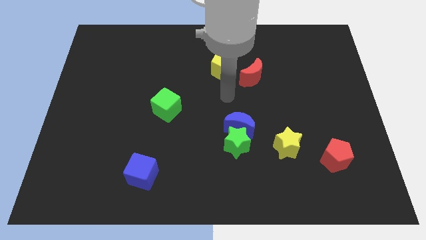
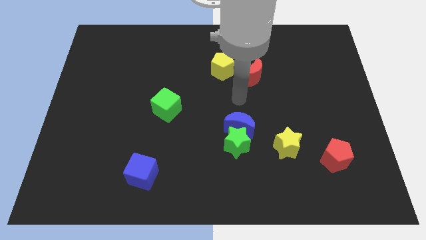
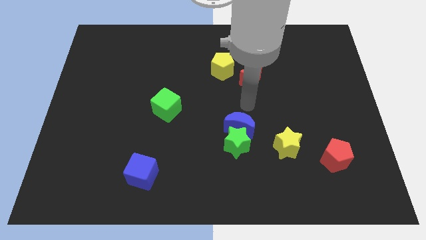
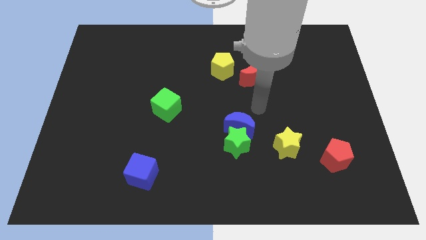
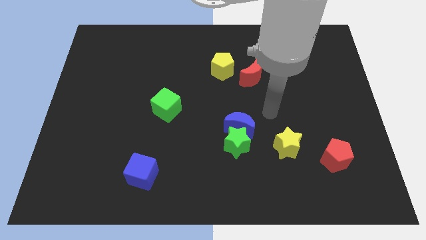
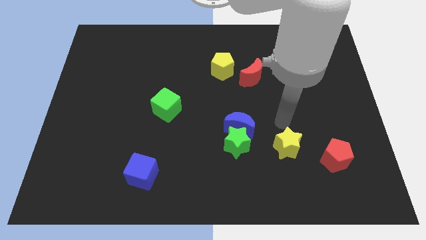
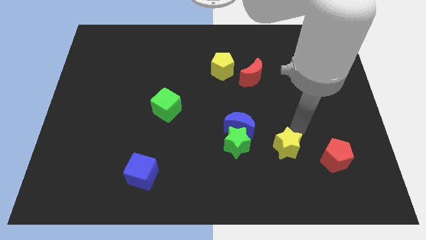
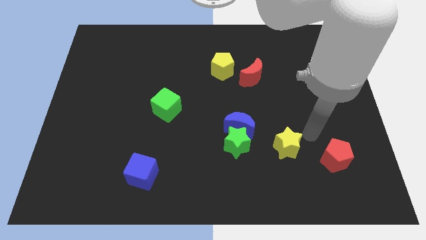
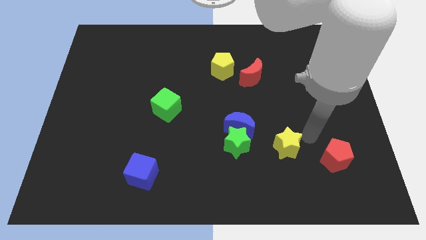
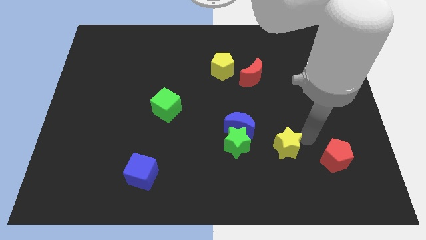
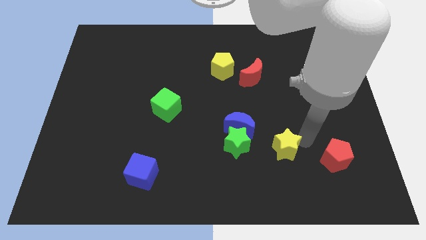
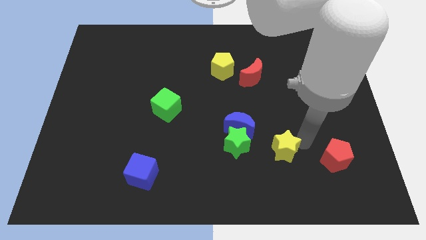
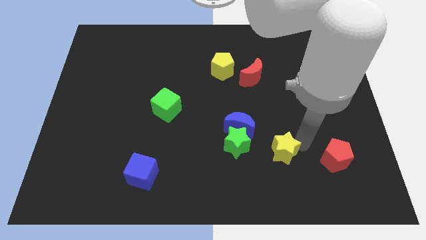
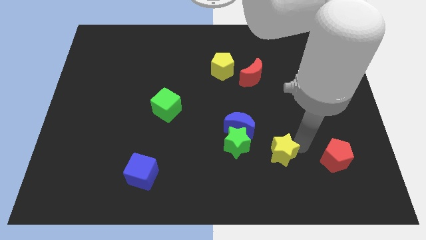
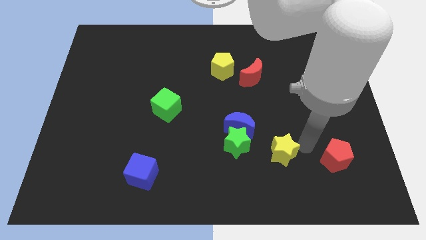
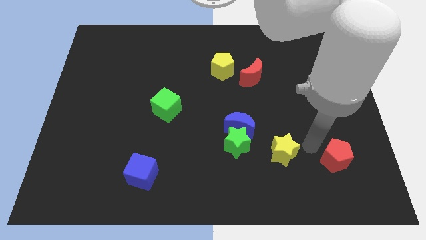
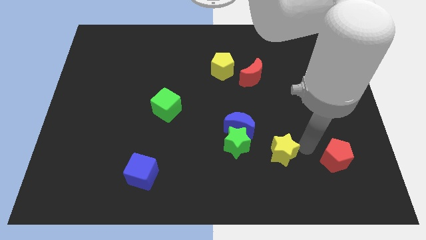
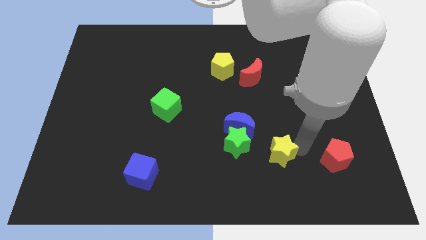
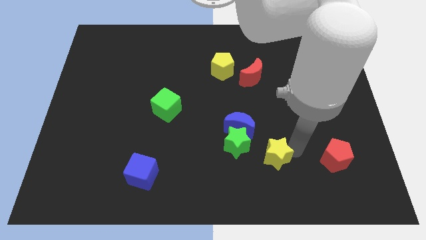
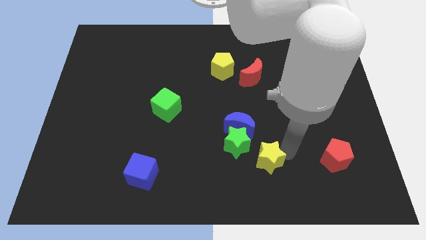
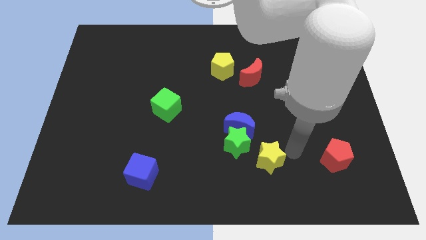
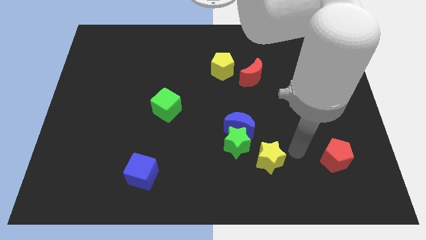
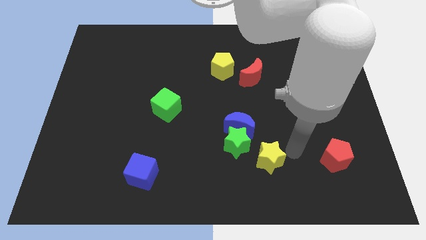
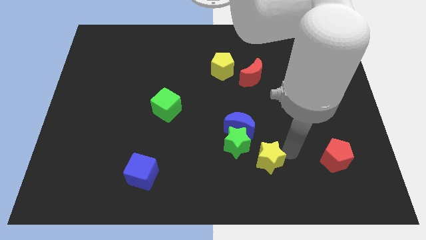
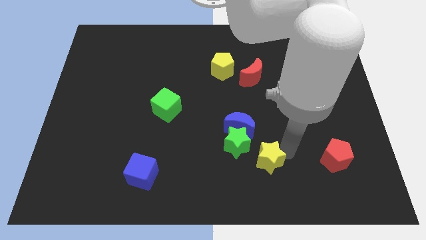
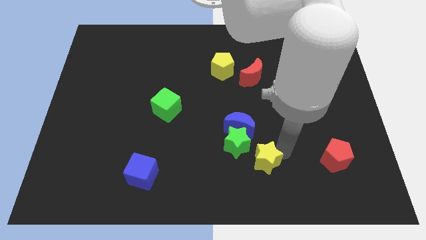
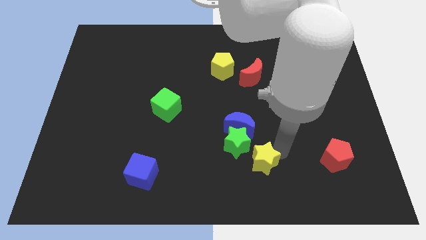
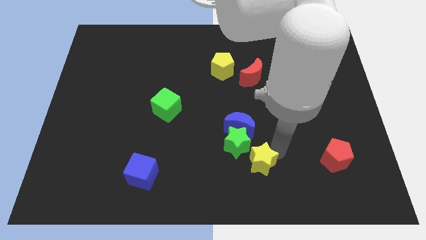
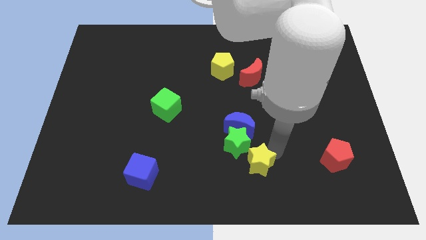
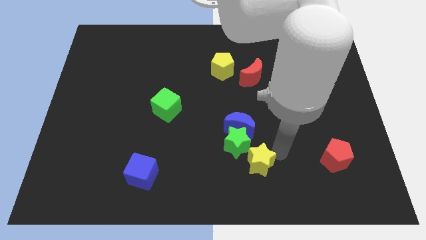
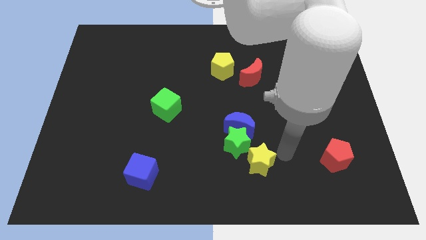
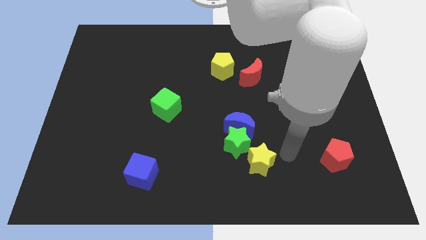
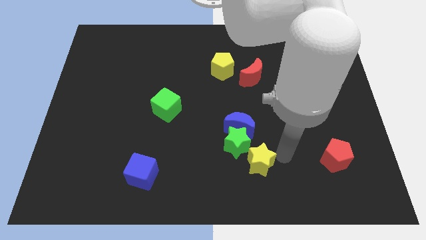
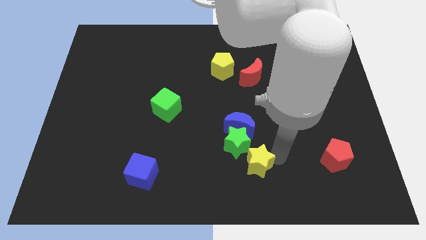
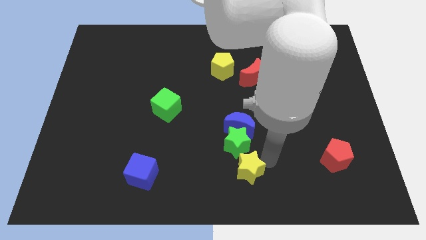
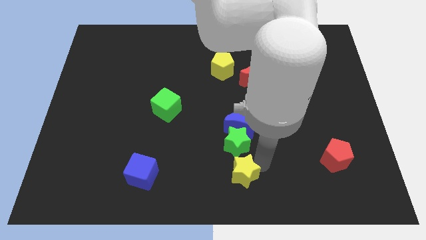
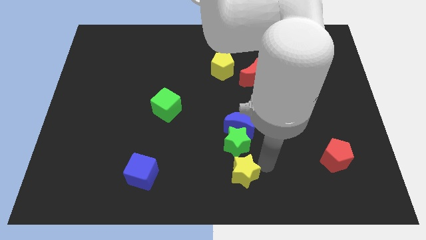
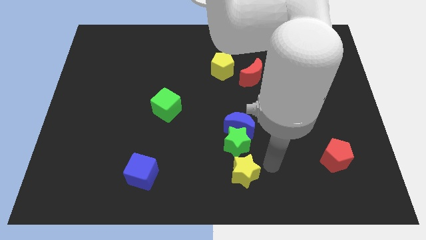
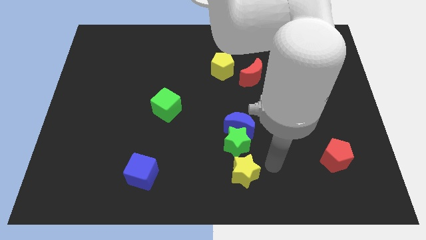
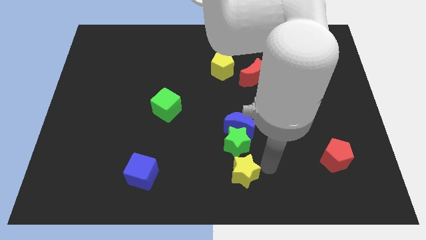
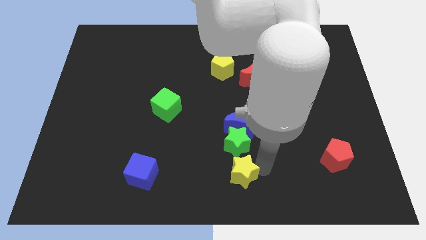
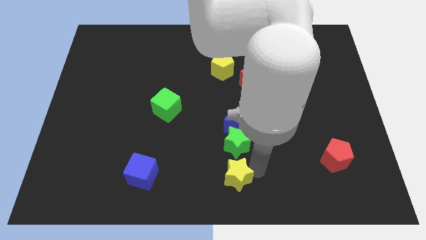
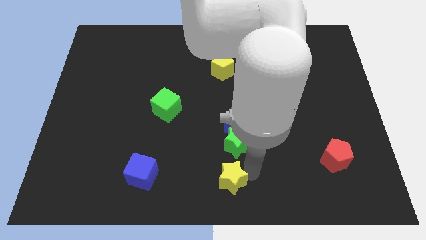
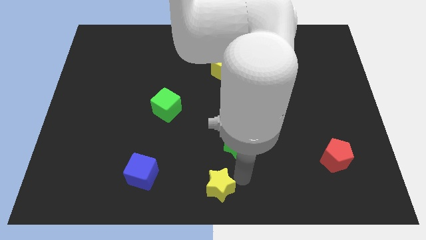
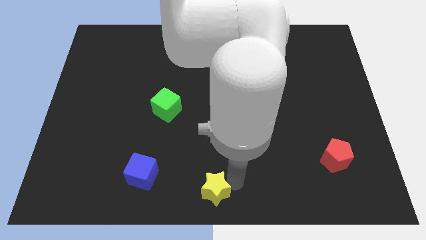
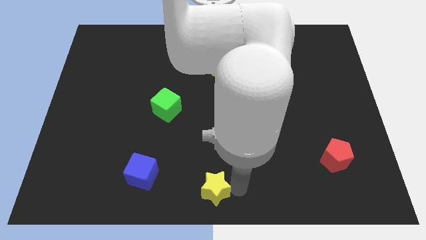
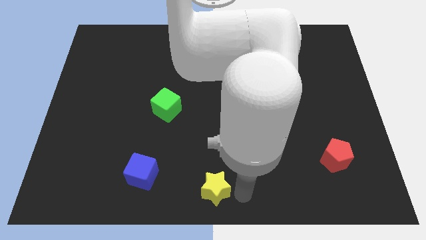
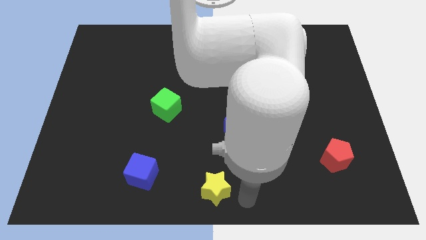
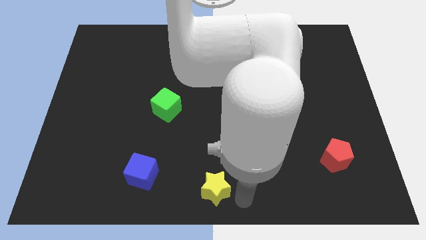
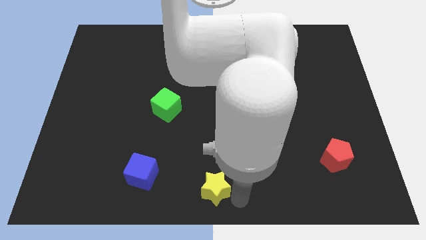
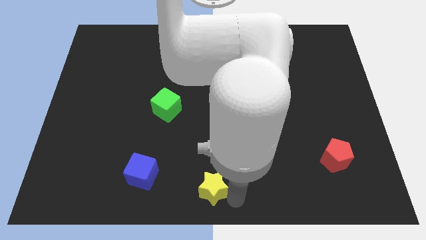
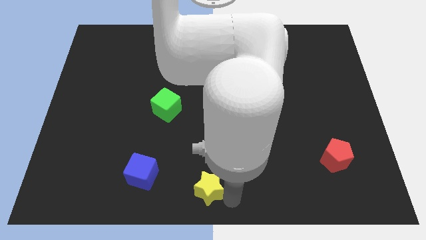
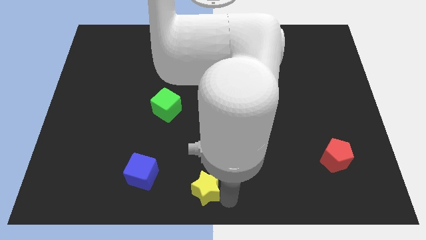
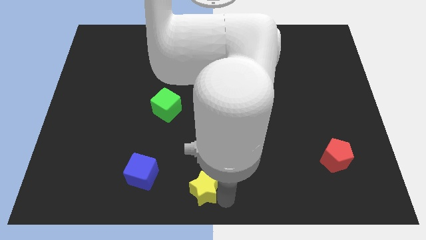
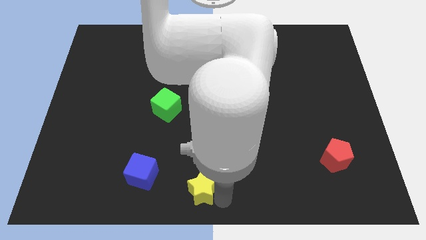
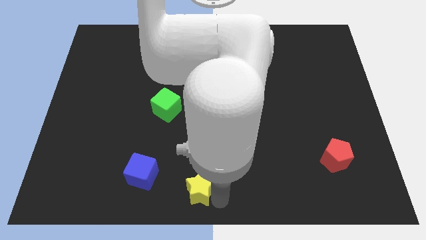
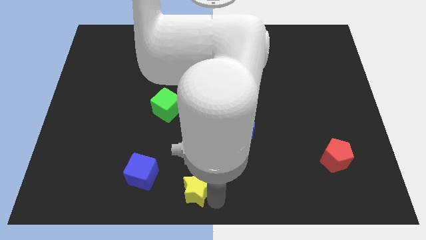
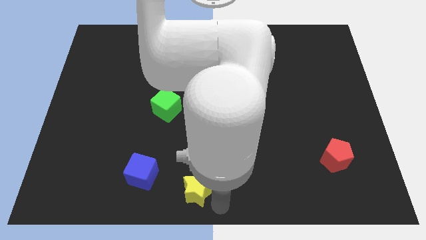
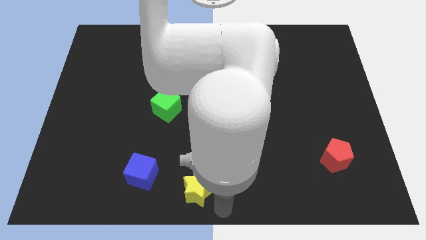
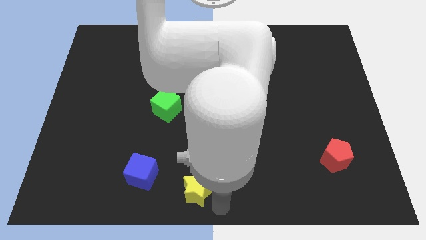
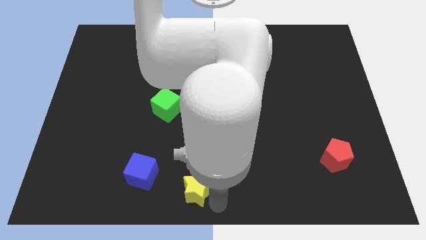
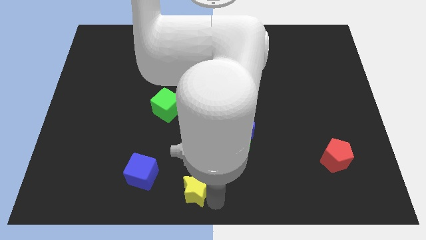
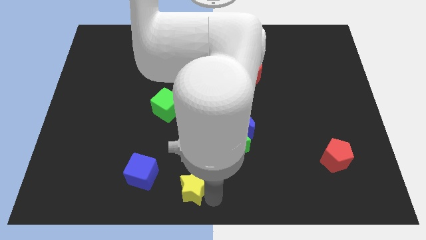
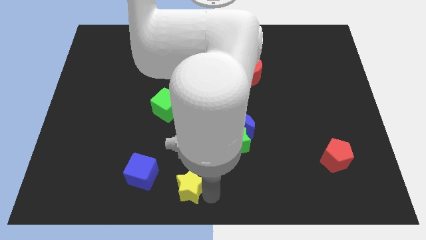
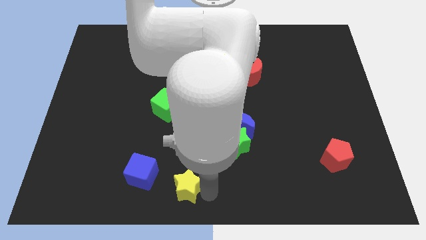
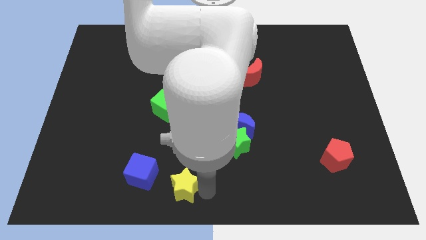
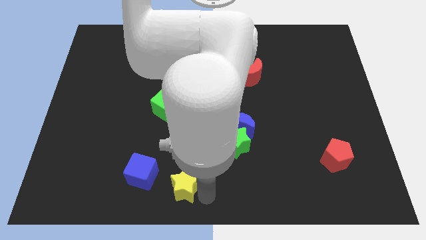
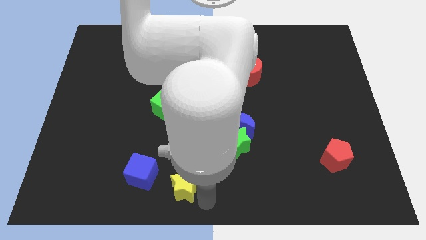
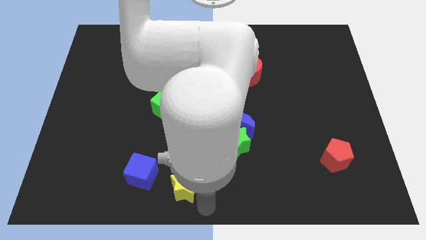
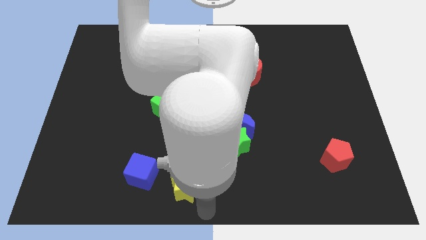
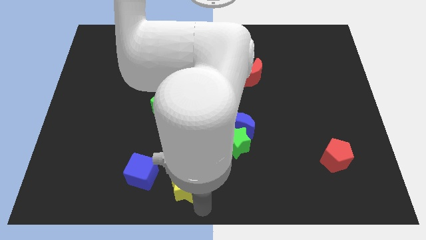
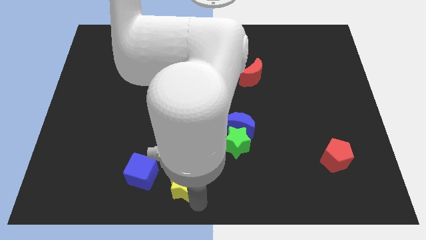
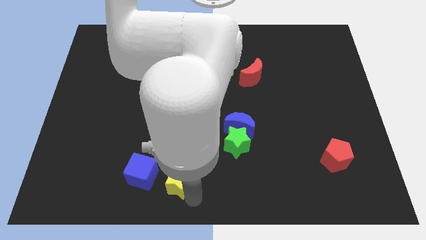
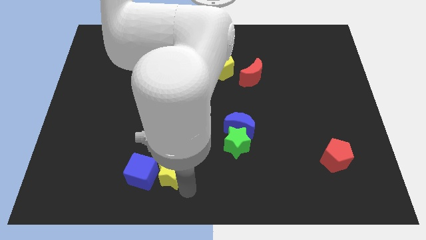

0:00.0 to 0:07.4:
put the yellow star towards the blue cube
